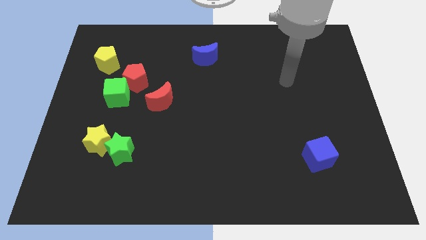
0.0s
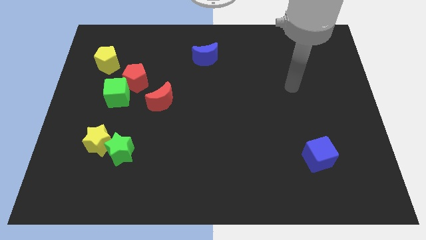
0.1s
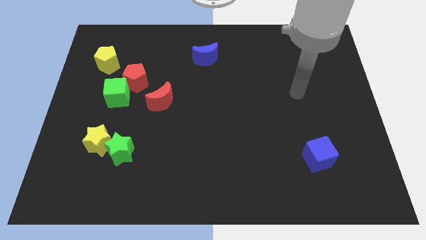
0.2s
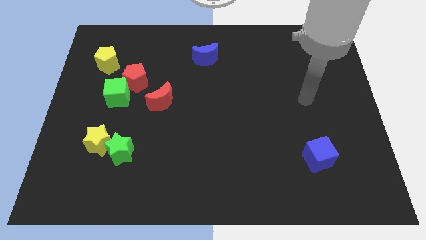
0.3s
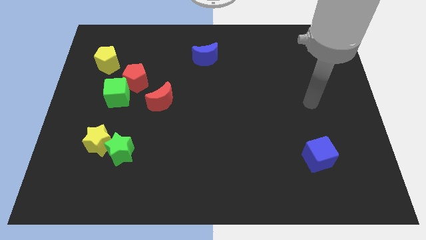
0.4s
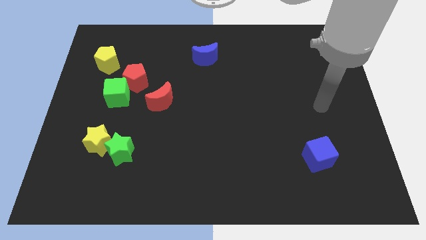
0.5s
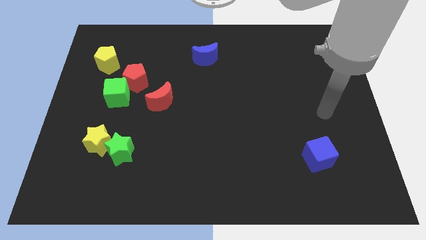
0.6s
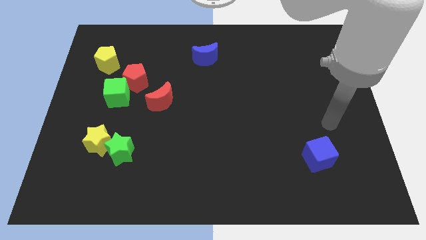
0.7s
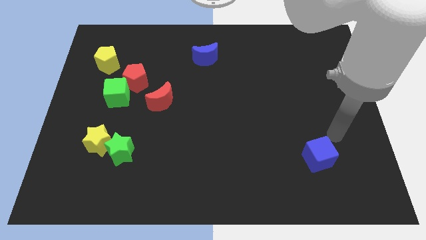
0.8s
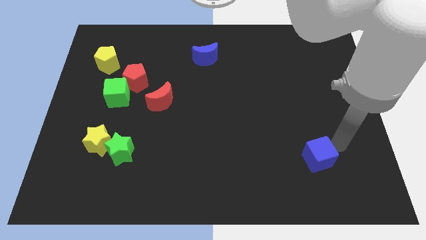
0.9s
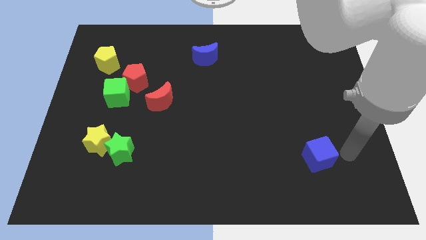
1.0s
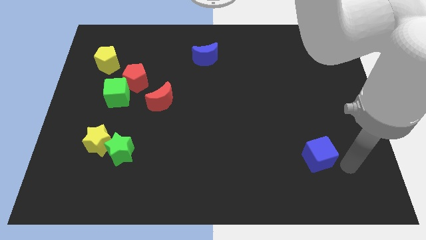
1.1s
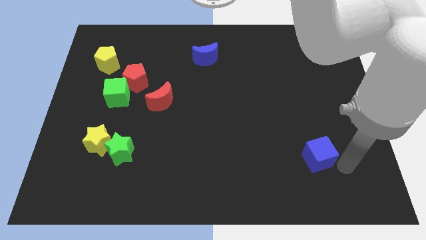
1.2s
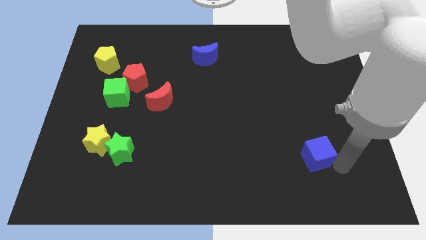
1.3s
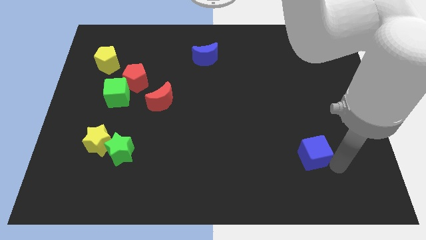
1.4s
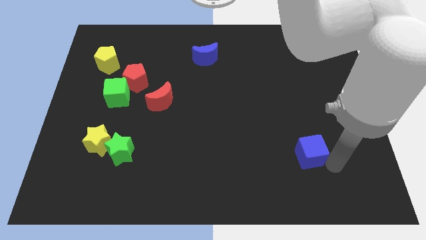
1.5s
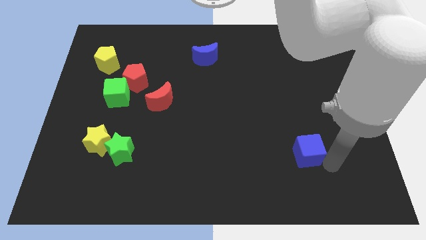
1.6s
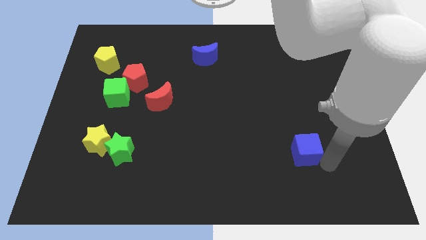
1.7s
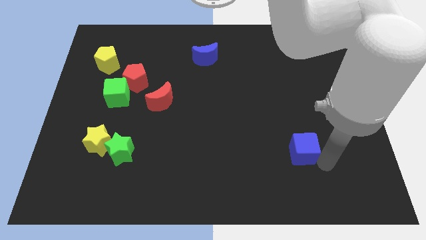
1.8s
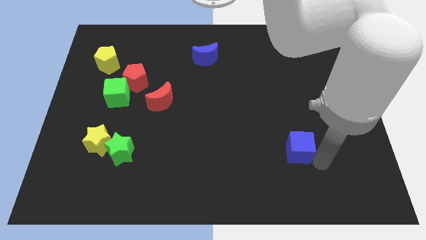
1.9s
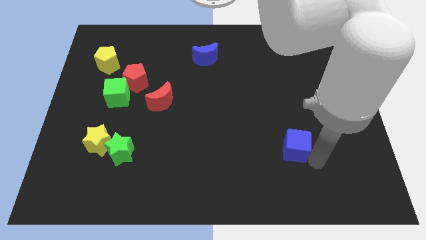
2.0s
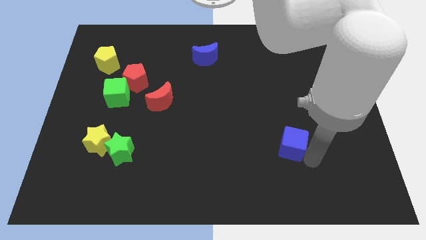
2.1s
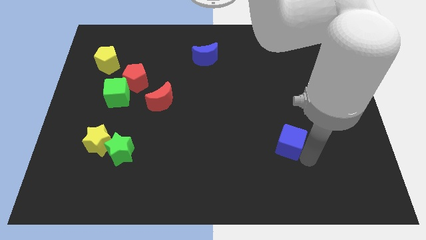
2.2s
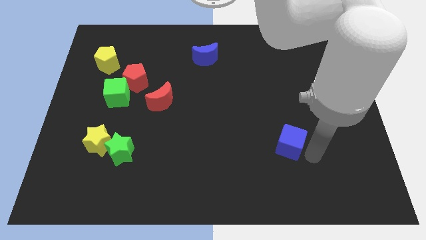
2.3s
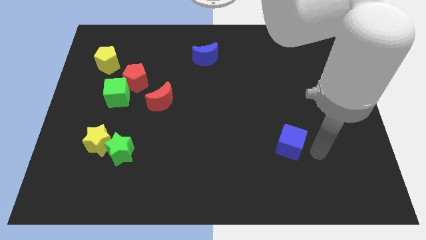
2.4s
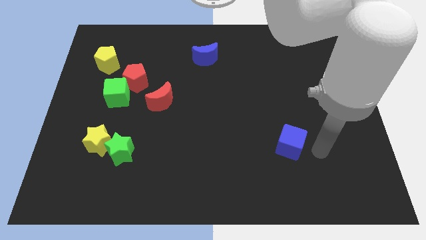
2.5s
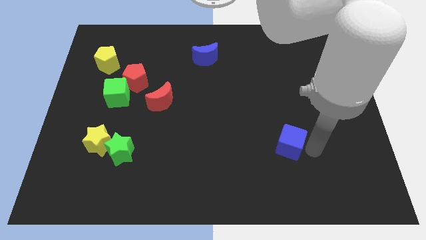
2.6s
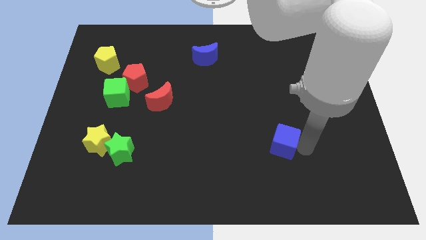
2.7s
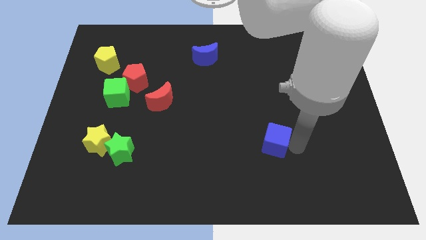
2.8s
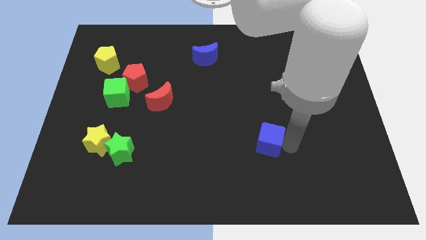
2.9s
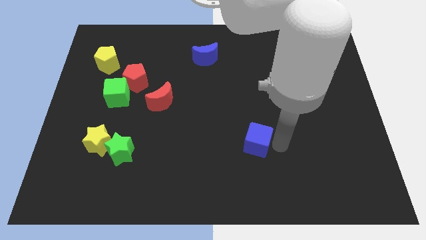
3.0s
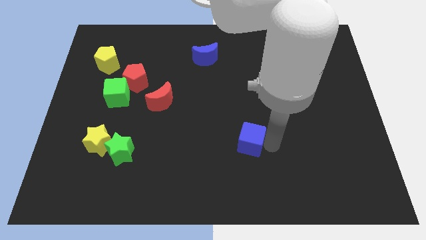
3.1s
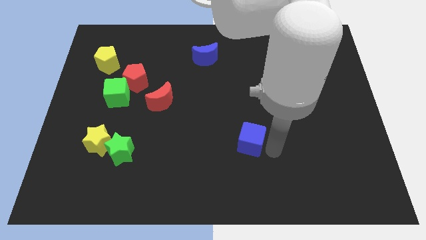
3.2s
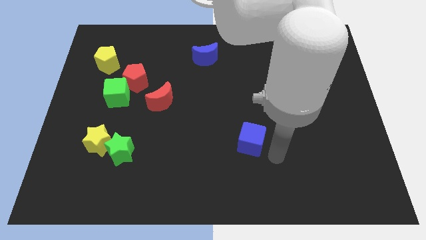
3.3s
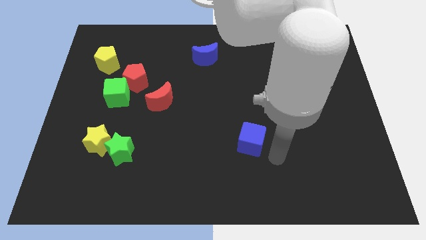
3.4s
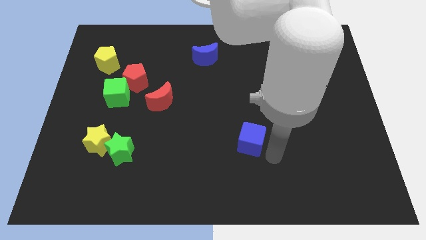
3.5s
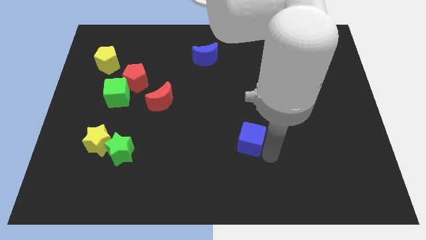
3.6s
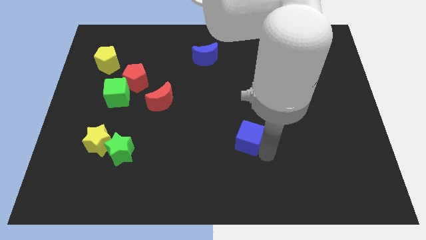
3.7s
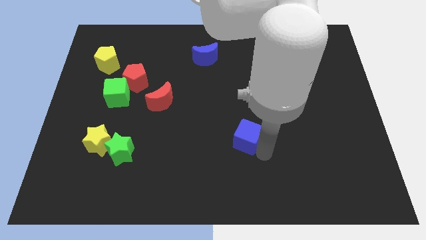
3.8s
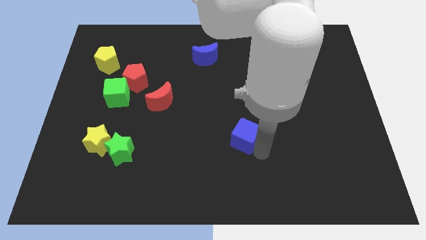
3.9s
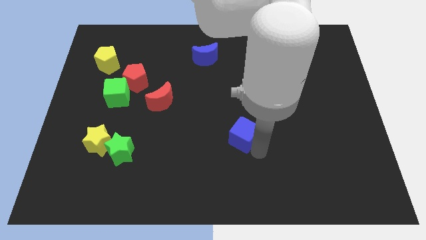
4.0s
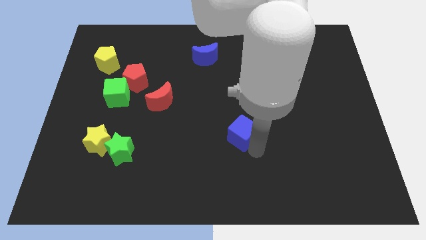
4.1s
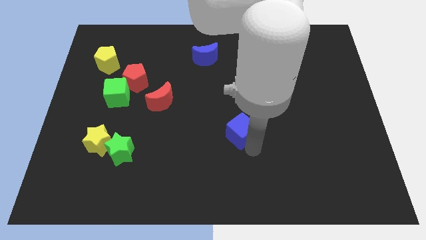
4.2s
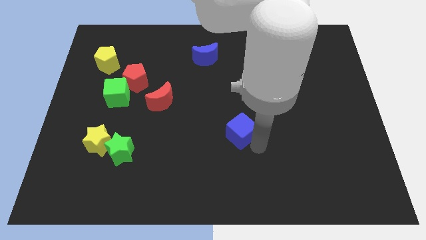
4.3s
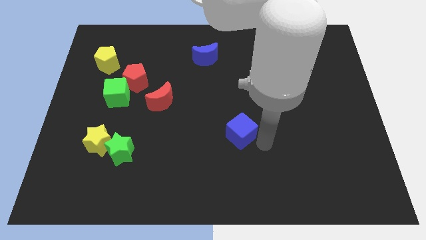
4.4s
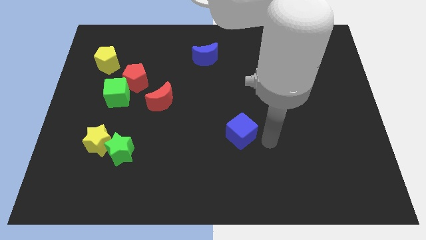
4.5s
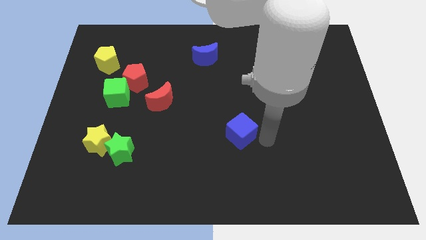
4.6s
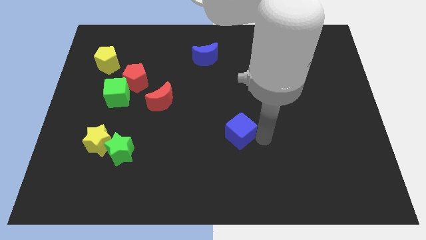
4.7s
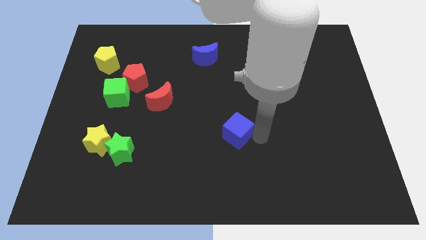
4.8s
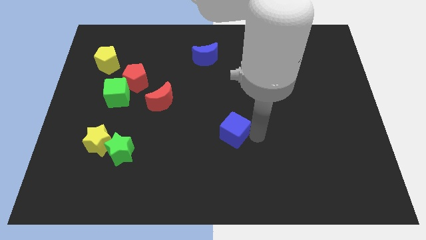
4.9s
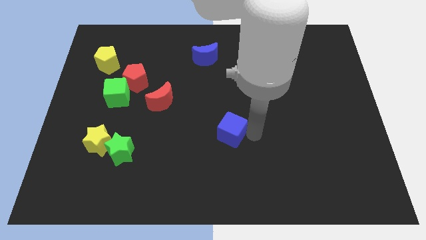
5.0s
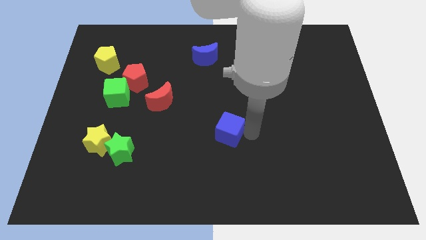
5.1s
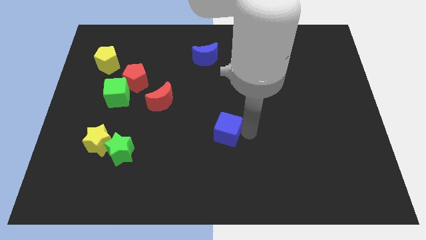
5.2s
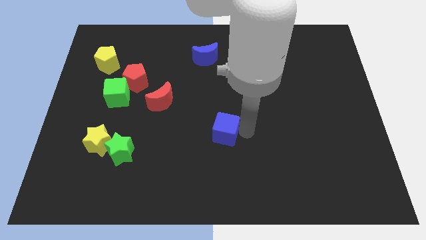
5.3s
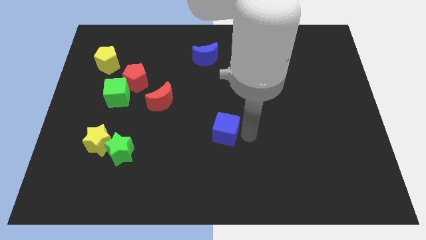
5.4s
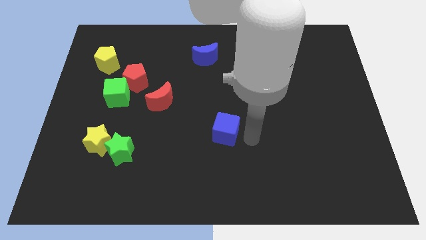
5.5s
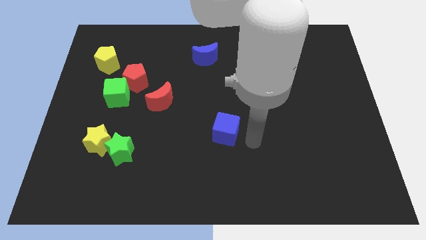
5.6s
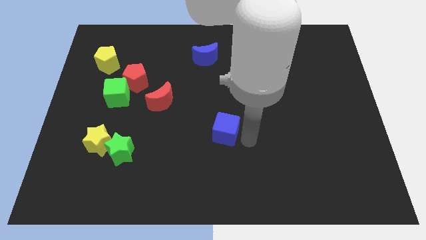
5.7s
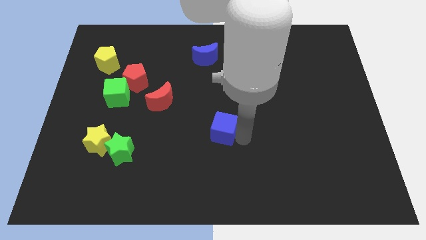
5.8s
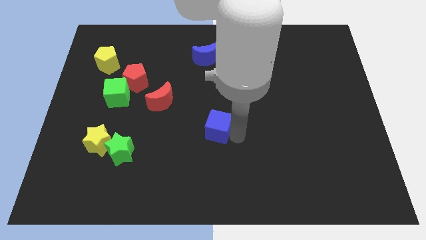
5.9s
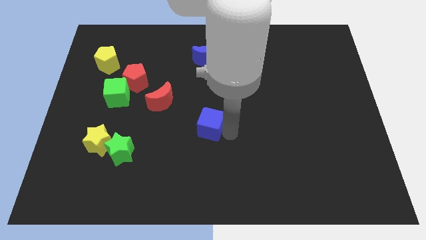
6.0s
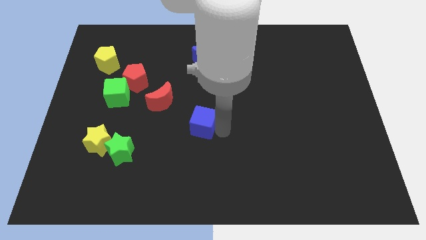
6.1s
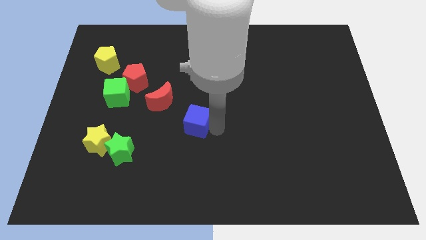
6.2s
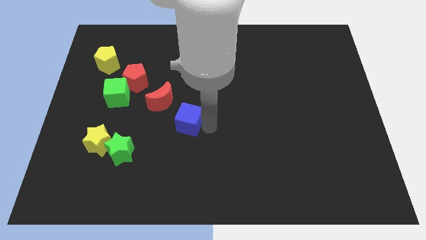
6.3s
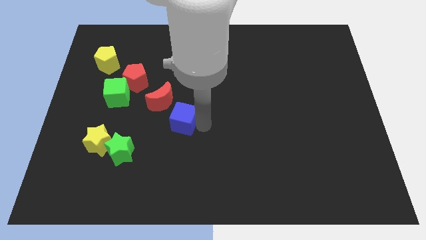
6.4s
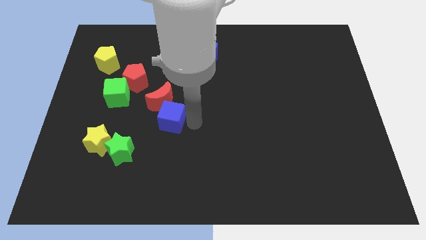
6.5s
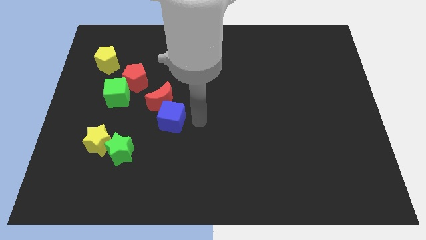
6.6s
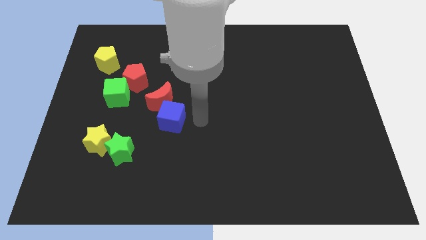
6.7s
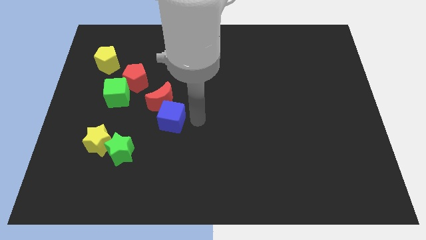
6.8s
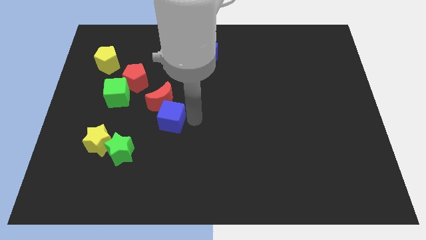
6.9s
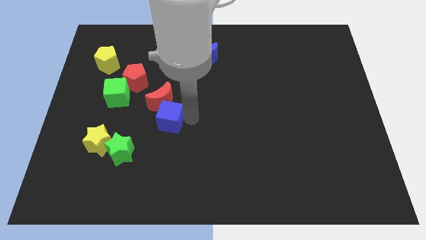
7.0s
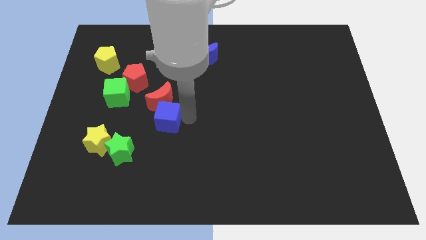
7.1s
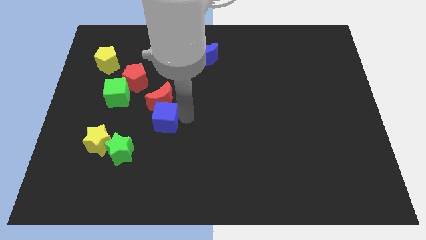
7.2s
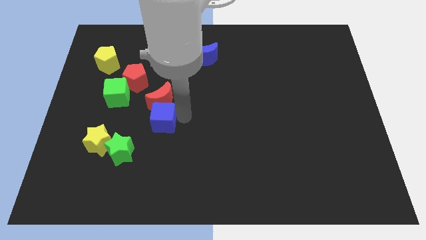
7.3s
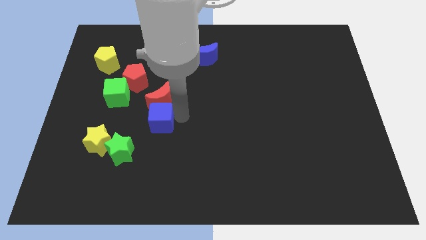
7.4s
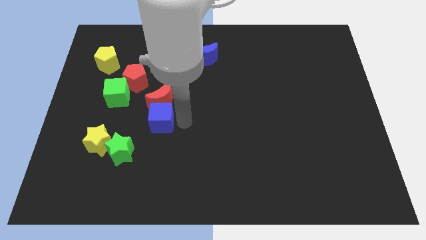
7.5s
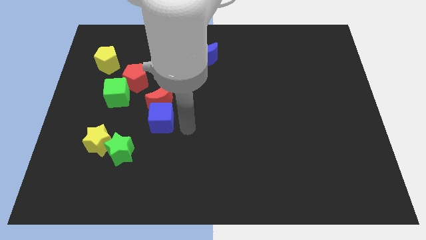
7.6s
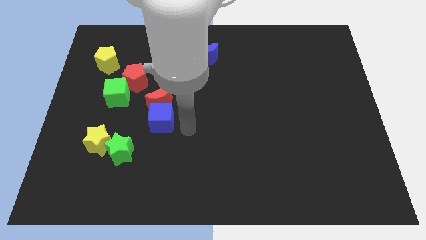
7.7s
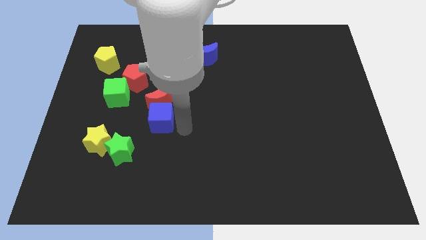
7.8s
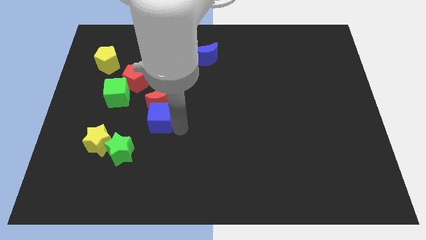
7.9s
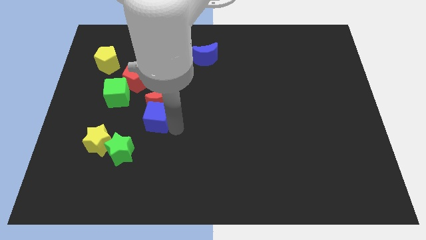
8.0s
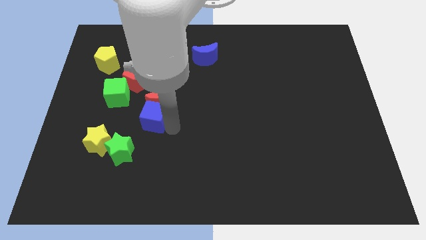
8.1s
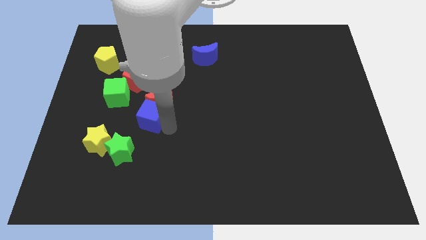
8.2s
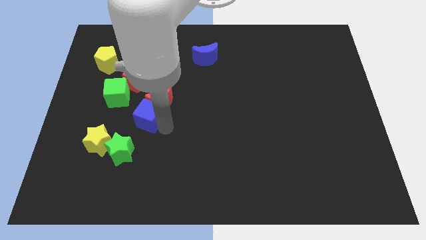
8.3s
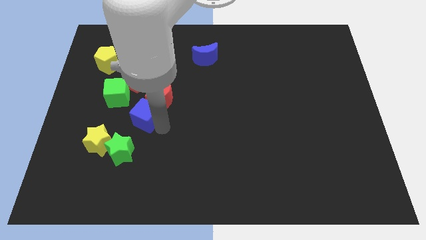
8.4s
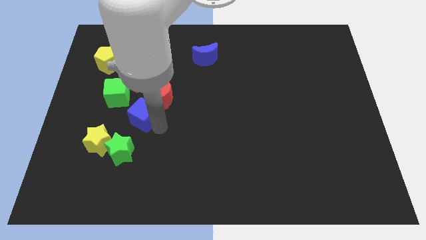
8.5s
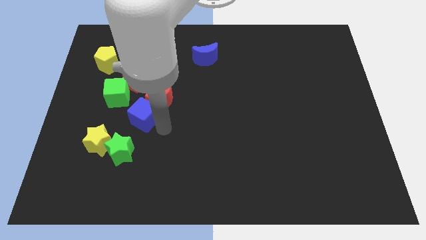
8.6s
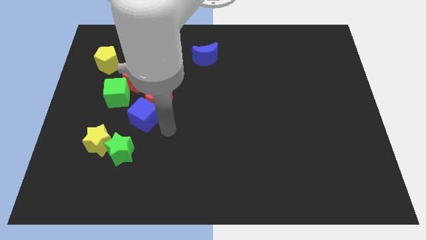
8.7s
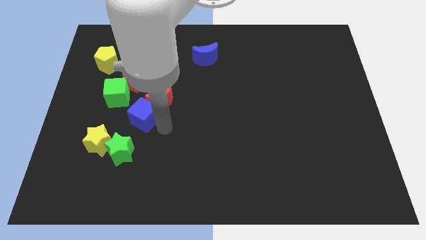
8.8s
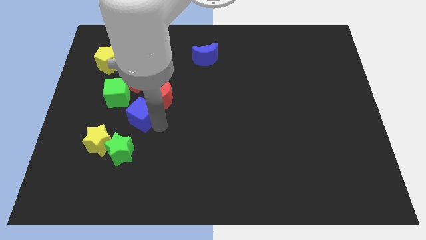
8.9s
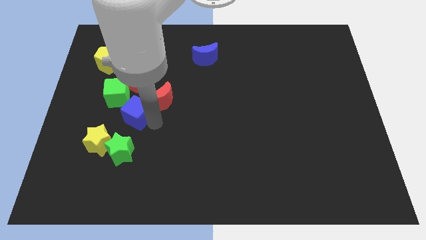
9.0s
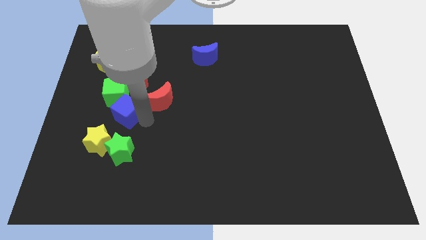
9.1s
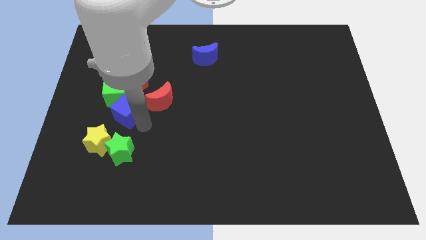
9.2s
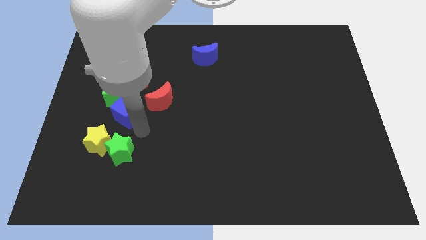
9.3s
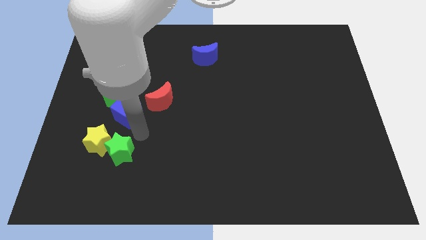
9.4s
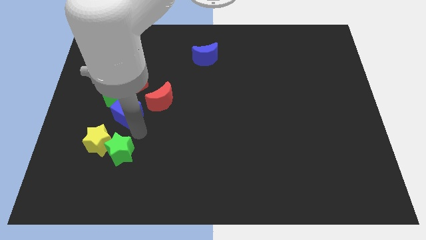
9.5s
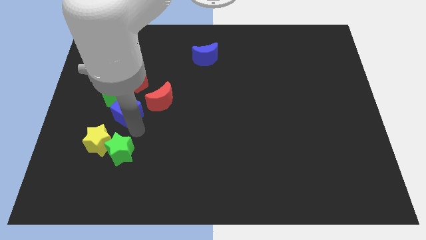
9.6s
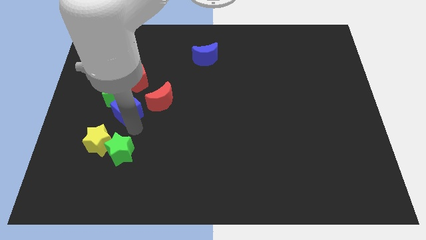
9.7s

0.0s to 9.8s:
push the blue cube next to the green cube
